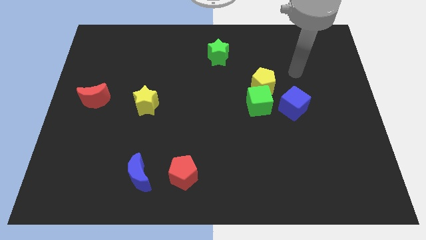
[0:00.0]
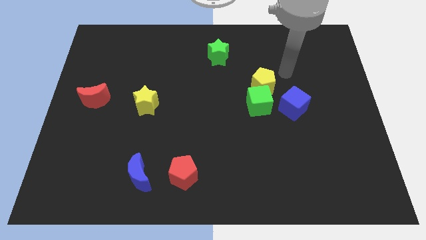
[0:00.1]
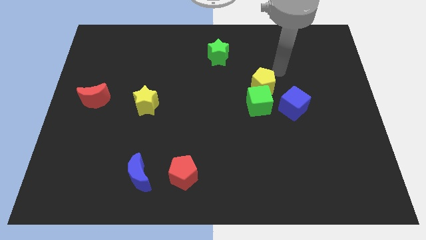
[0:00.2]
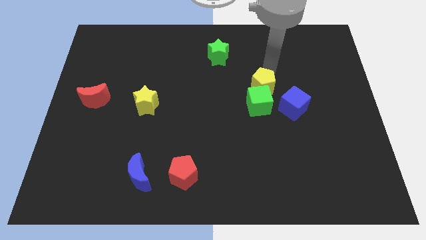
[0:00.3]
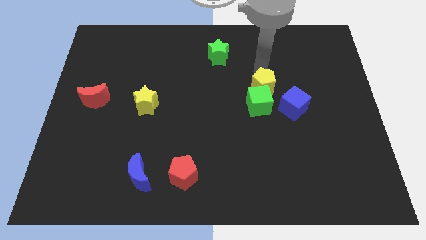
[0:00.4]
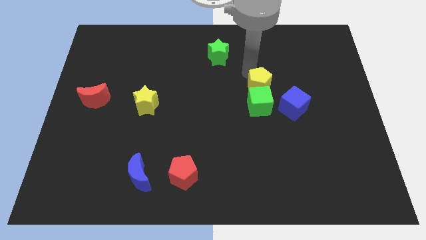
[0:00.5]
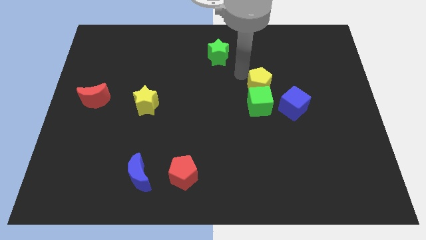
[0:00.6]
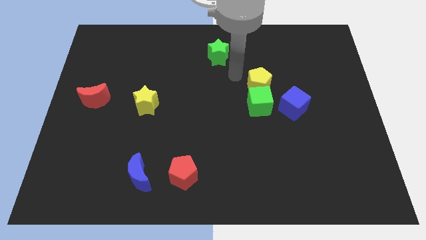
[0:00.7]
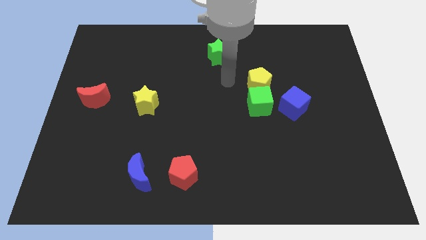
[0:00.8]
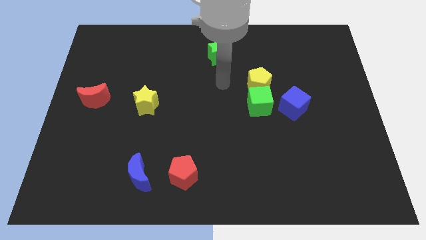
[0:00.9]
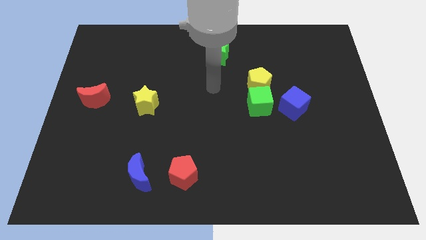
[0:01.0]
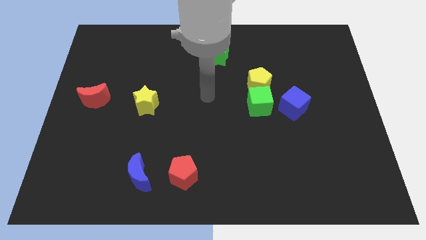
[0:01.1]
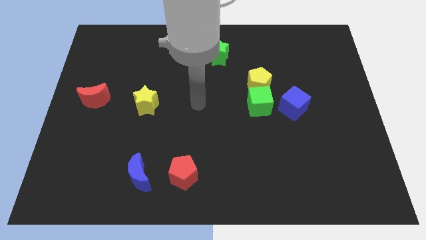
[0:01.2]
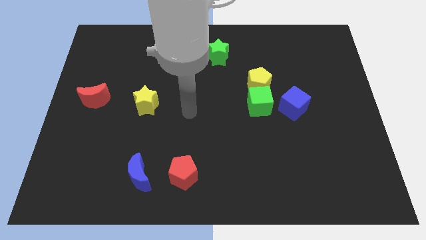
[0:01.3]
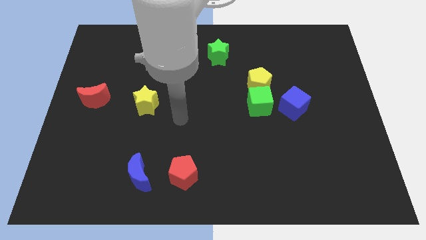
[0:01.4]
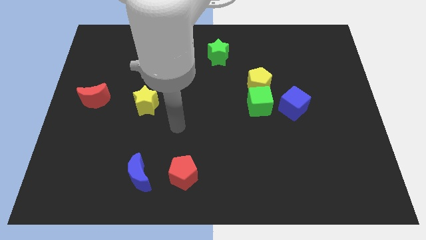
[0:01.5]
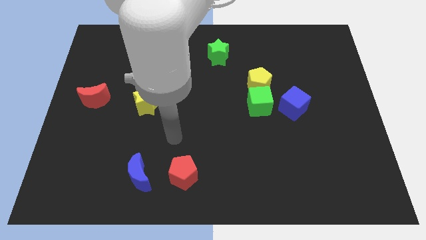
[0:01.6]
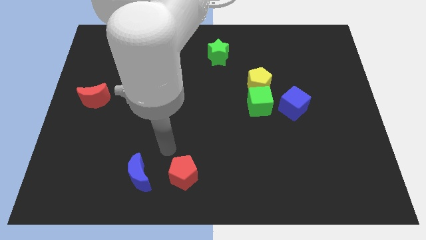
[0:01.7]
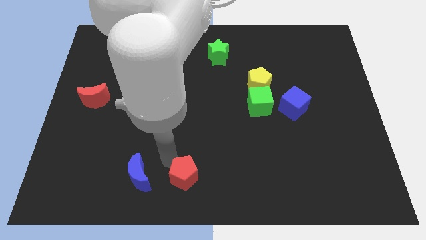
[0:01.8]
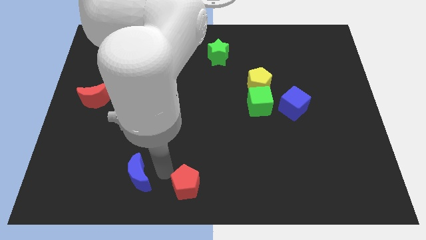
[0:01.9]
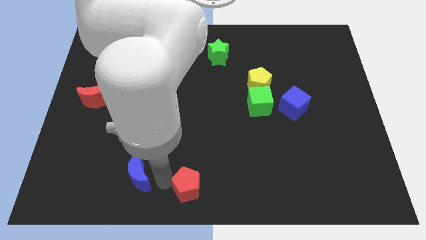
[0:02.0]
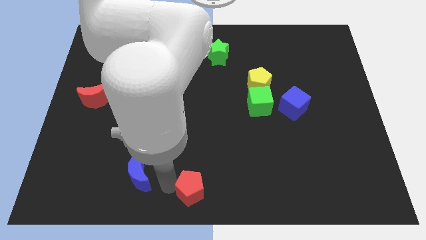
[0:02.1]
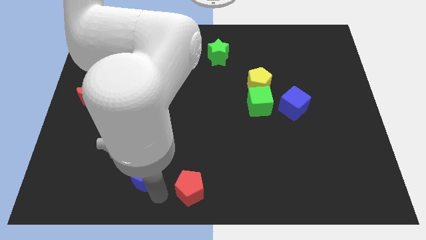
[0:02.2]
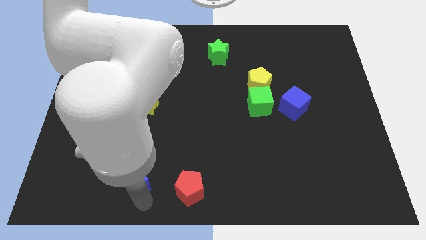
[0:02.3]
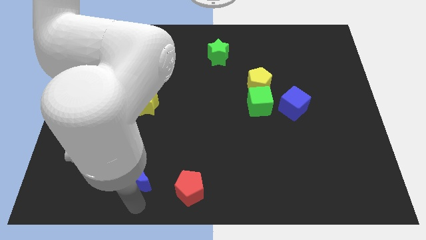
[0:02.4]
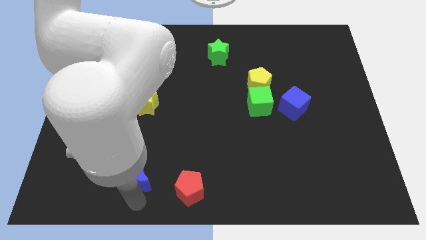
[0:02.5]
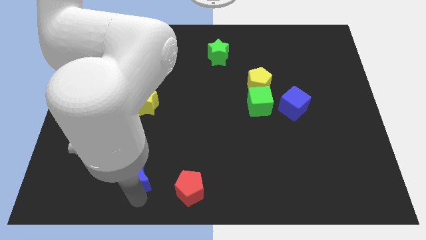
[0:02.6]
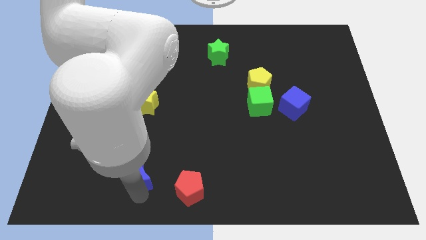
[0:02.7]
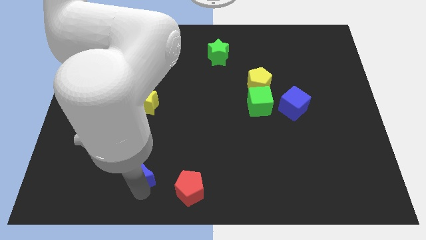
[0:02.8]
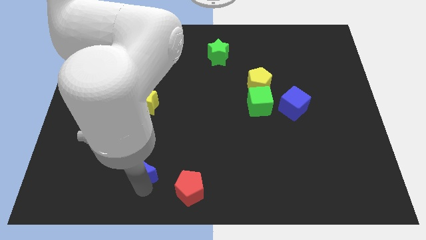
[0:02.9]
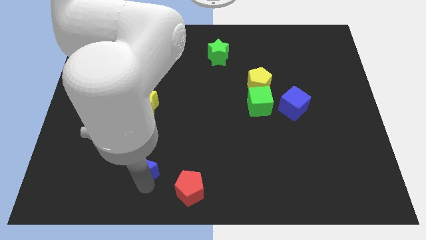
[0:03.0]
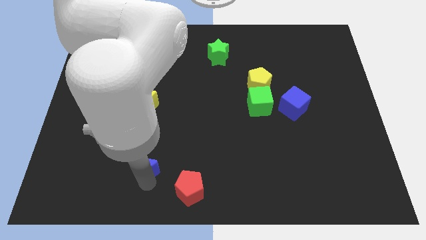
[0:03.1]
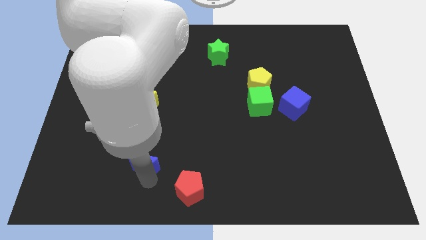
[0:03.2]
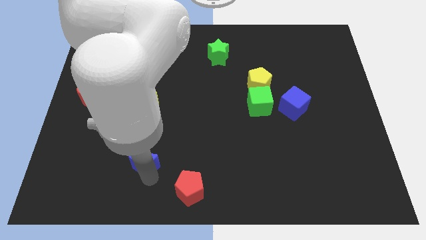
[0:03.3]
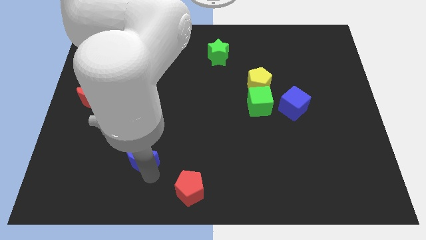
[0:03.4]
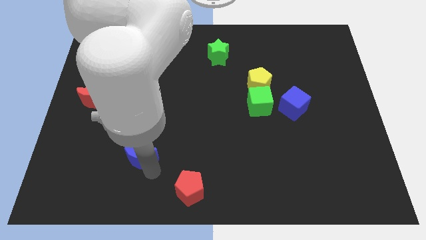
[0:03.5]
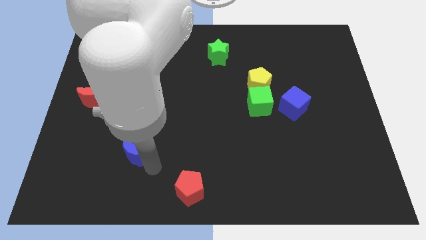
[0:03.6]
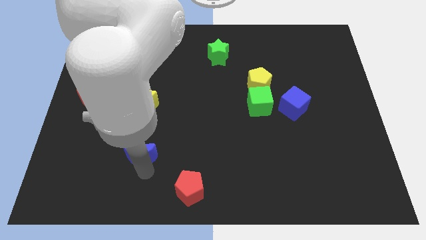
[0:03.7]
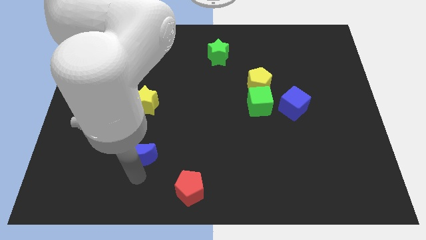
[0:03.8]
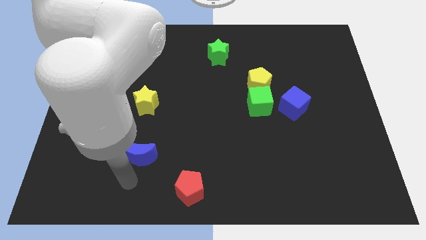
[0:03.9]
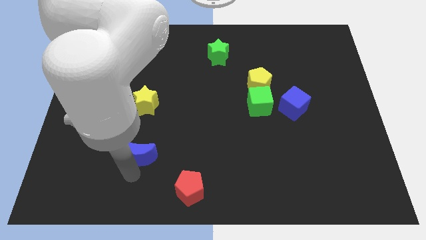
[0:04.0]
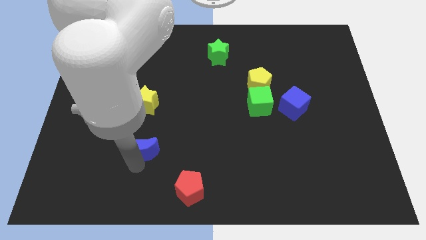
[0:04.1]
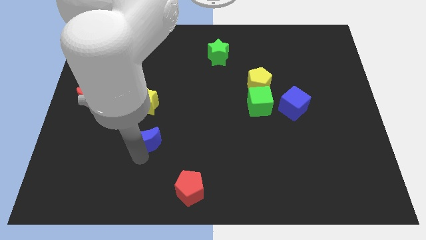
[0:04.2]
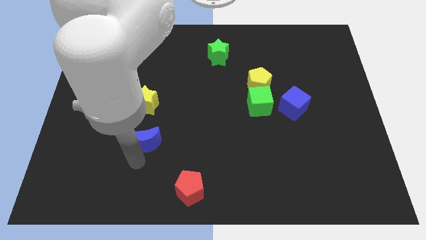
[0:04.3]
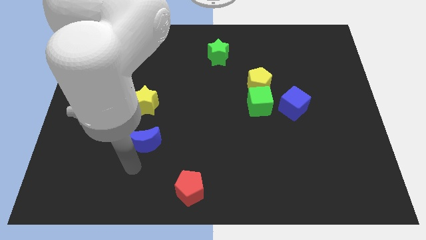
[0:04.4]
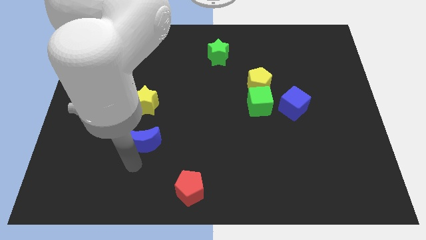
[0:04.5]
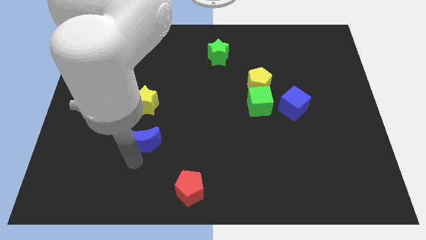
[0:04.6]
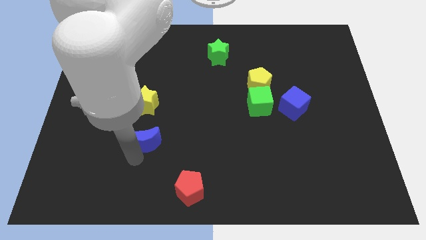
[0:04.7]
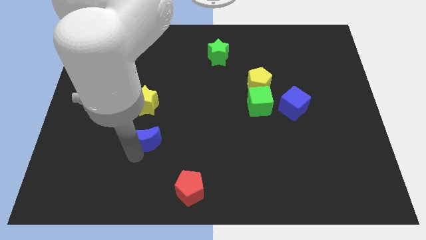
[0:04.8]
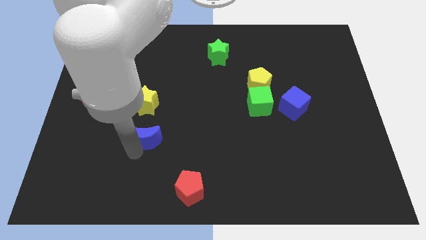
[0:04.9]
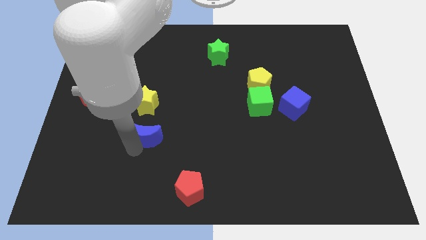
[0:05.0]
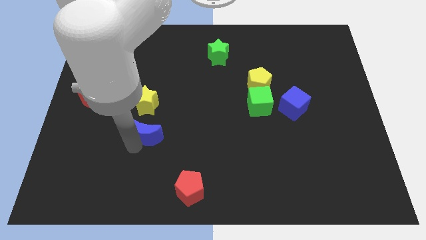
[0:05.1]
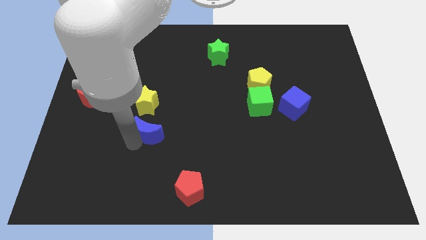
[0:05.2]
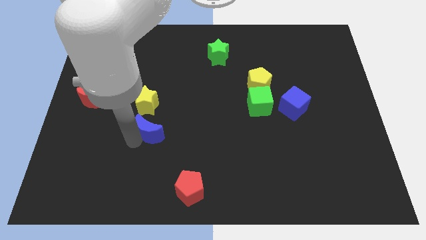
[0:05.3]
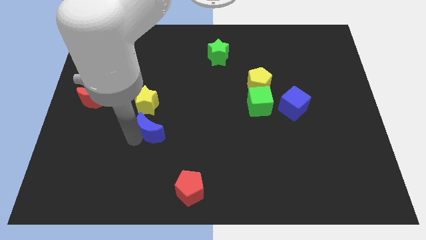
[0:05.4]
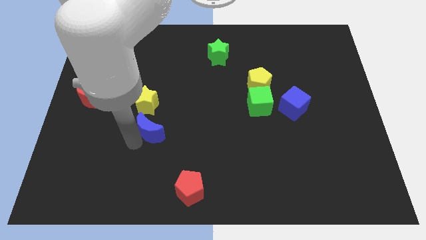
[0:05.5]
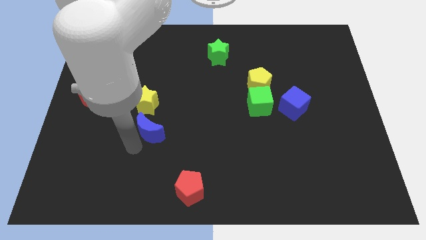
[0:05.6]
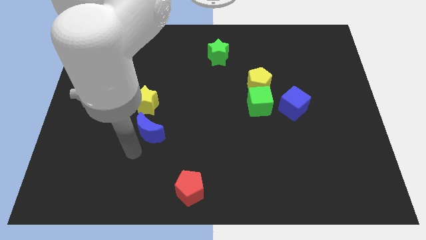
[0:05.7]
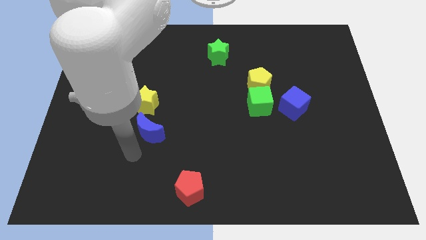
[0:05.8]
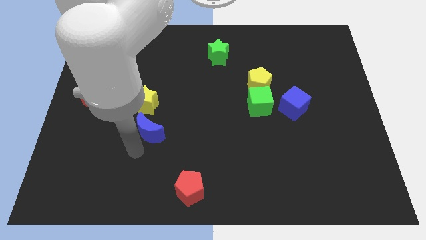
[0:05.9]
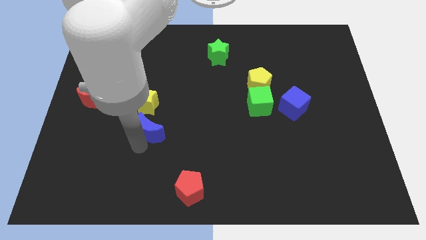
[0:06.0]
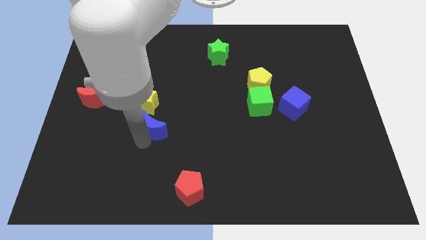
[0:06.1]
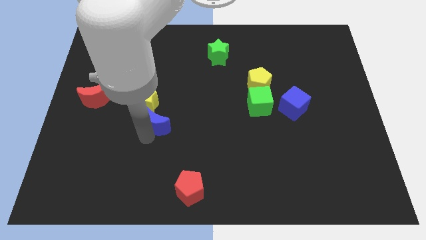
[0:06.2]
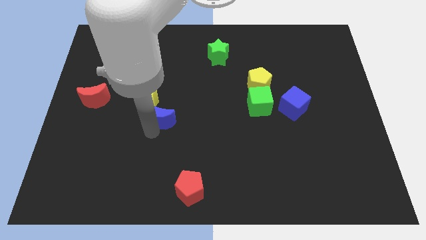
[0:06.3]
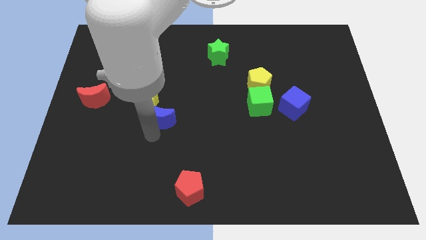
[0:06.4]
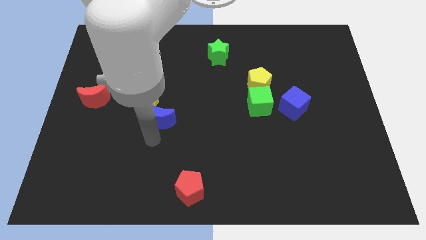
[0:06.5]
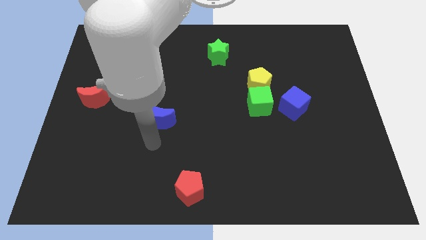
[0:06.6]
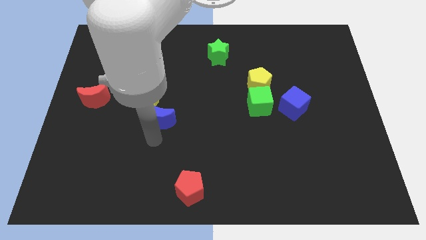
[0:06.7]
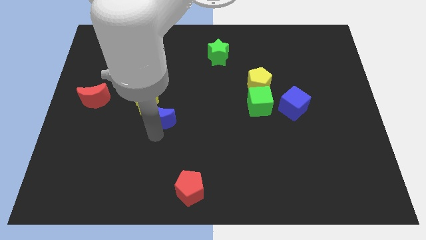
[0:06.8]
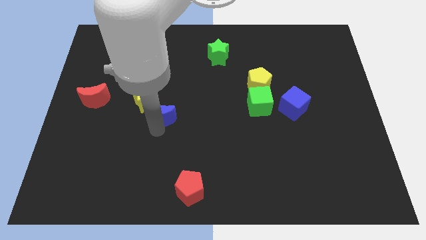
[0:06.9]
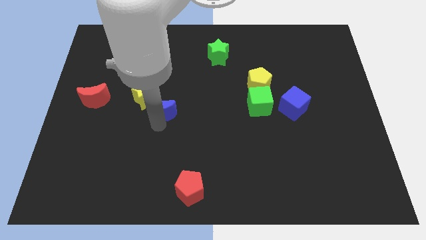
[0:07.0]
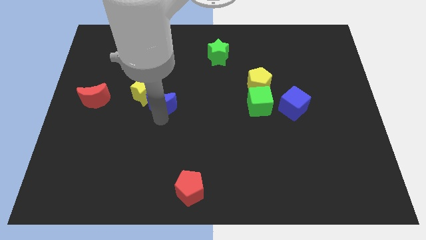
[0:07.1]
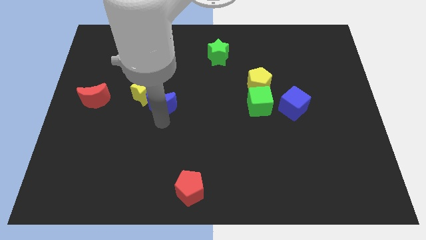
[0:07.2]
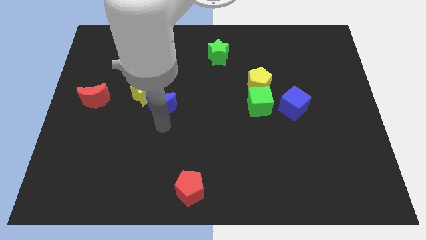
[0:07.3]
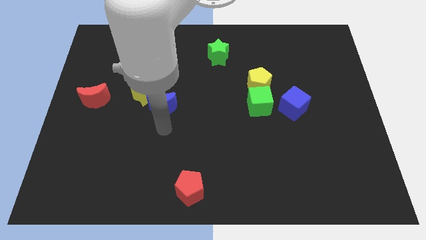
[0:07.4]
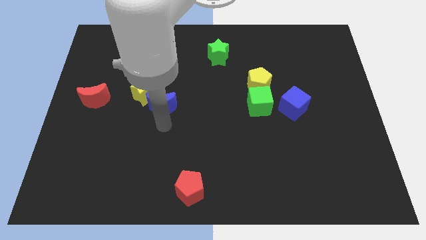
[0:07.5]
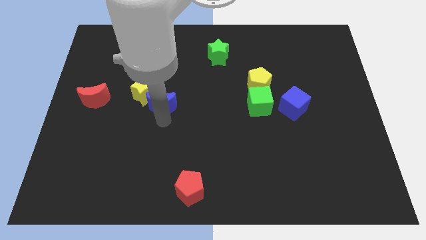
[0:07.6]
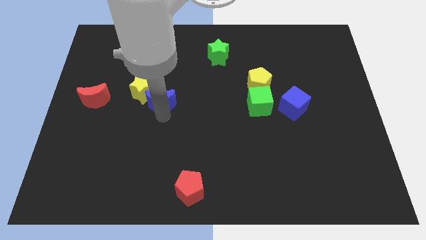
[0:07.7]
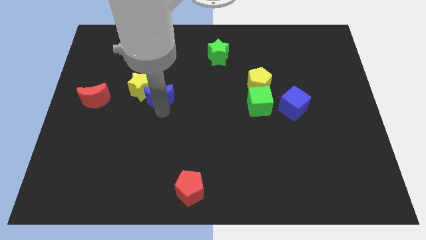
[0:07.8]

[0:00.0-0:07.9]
slide the blue moon upwards

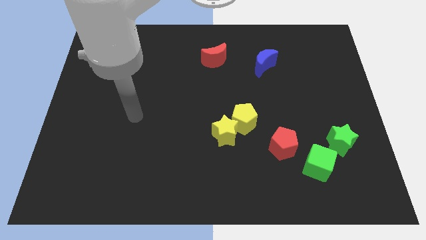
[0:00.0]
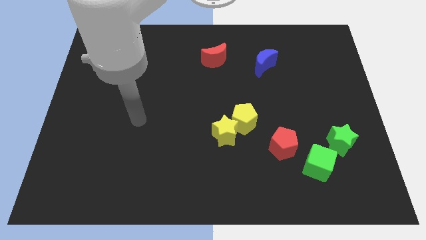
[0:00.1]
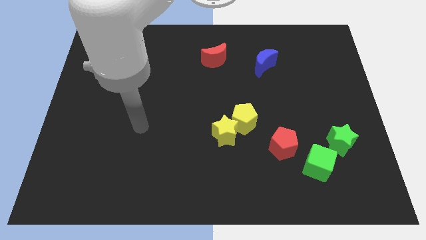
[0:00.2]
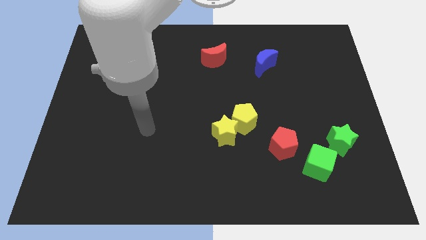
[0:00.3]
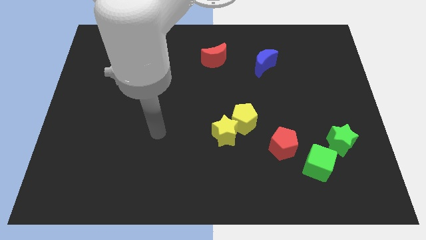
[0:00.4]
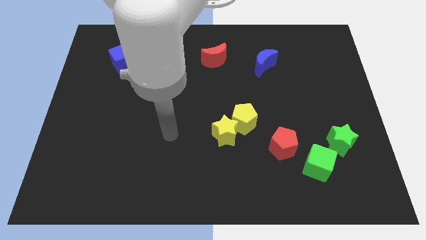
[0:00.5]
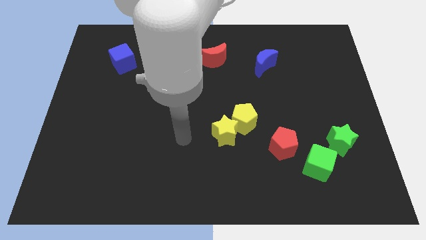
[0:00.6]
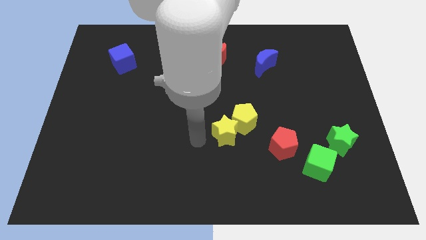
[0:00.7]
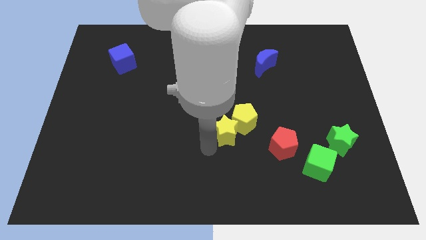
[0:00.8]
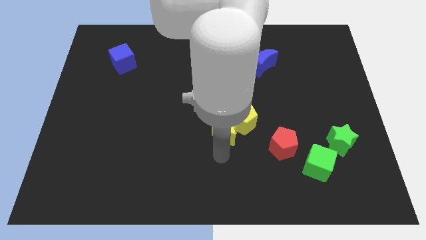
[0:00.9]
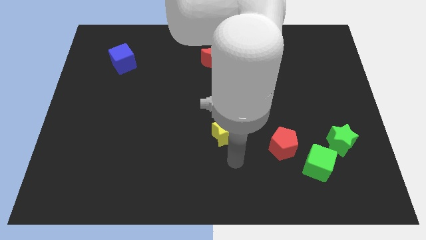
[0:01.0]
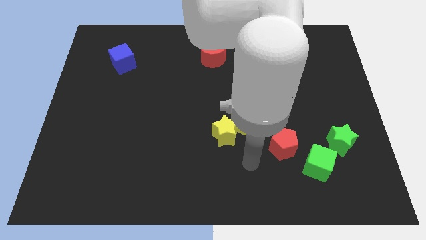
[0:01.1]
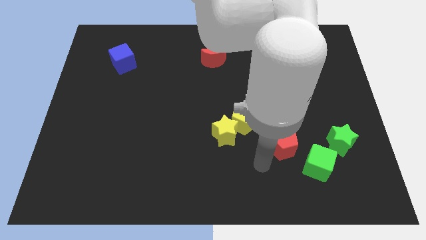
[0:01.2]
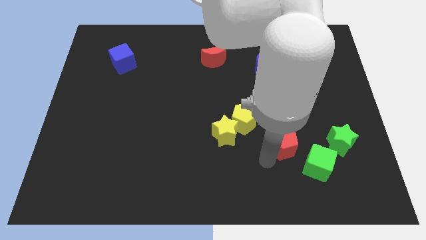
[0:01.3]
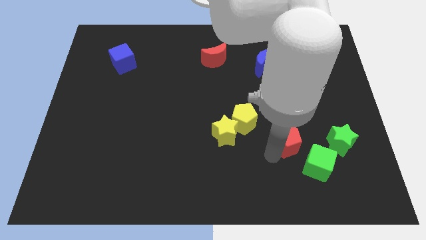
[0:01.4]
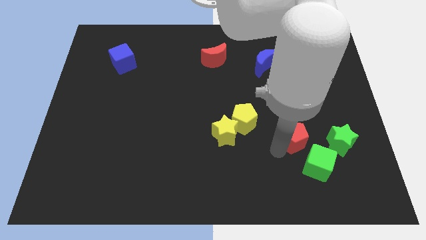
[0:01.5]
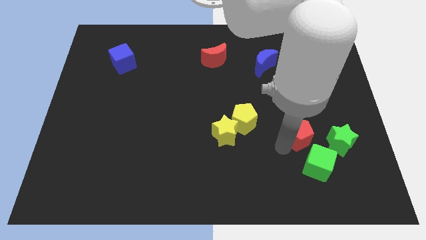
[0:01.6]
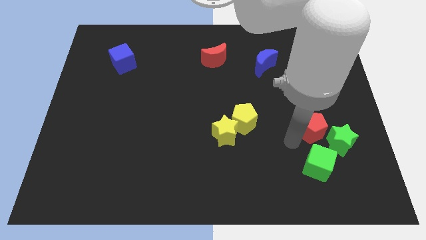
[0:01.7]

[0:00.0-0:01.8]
push the red pentagon up and then right a little
